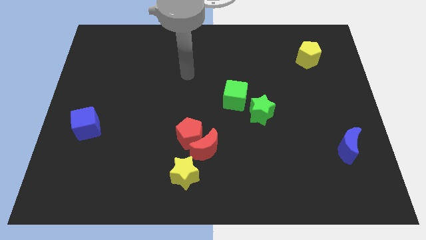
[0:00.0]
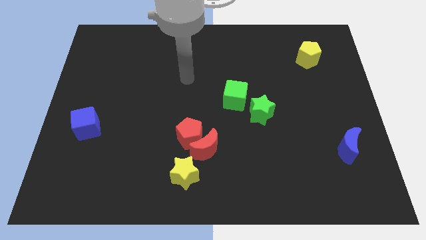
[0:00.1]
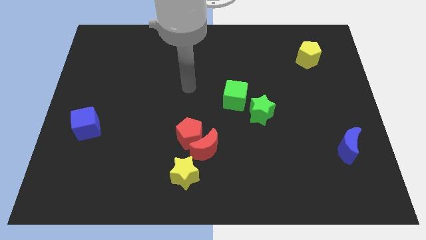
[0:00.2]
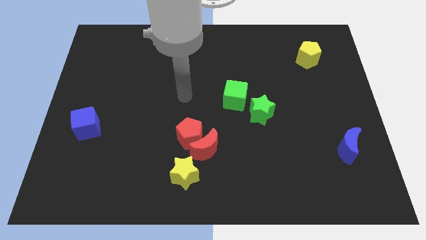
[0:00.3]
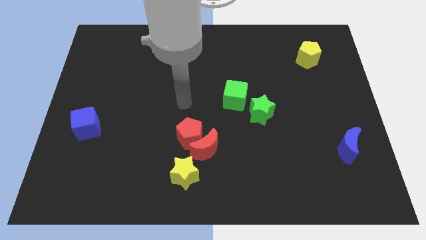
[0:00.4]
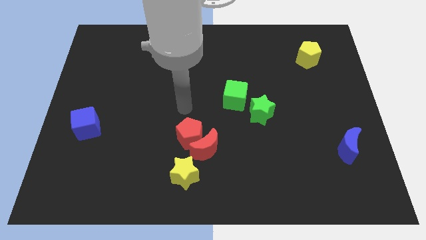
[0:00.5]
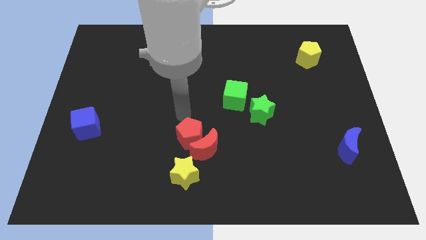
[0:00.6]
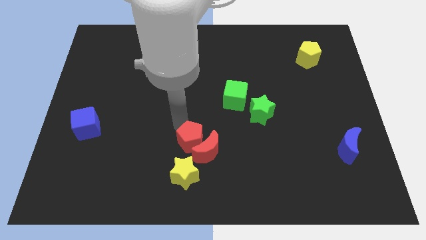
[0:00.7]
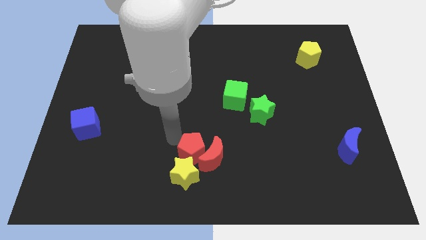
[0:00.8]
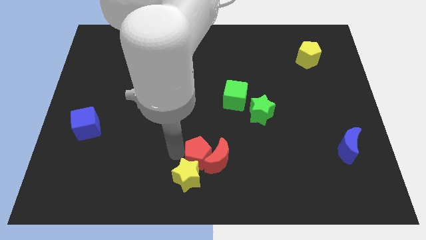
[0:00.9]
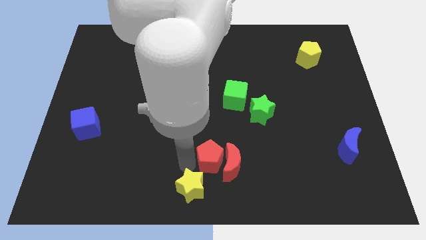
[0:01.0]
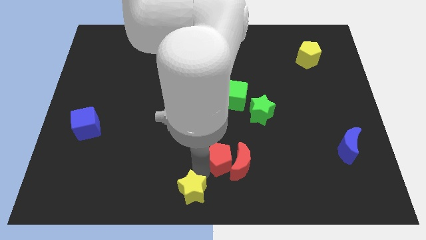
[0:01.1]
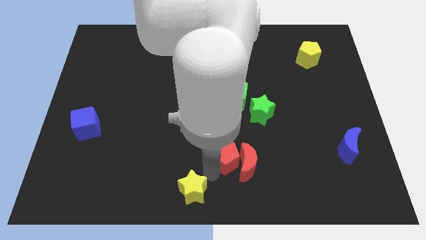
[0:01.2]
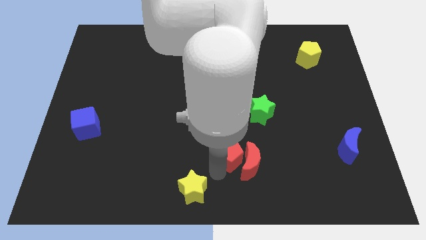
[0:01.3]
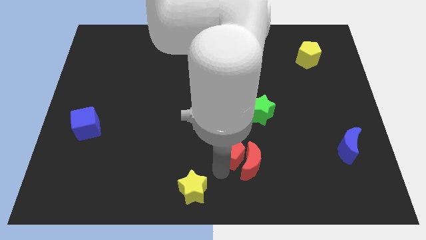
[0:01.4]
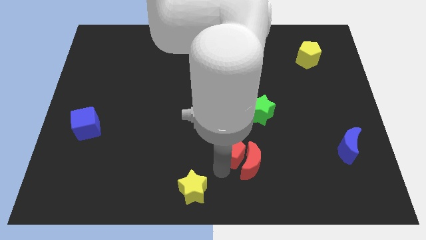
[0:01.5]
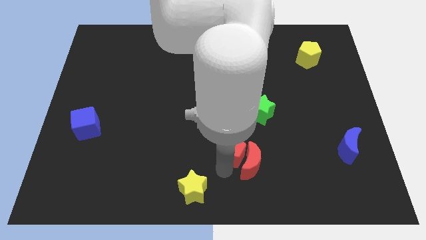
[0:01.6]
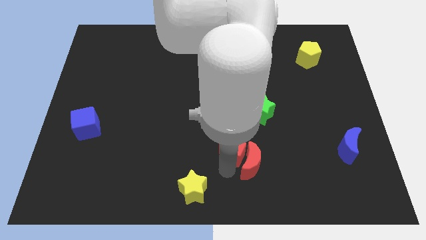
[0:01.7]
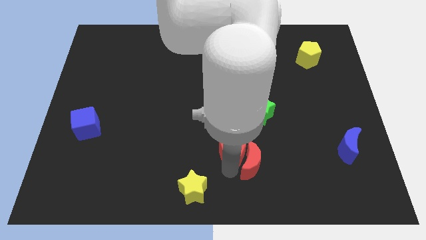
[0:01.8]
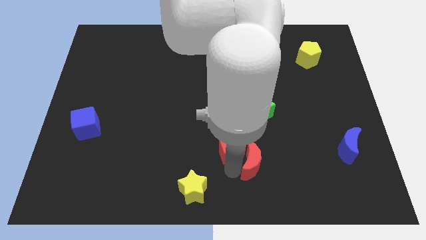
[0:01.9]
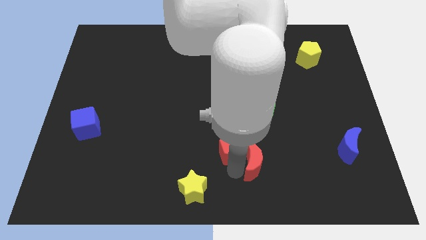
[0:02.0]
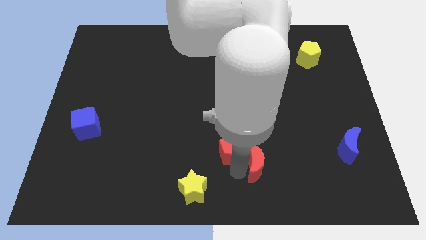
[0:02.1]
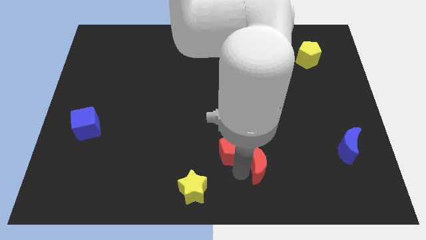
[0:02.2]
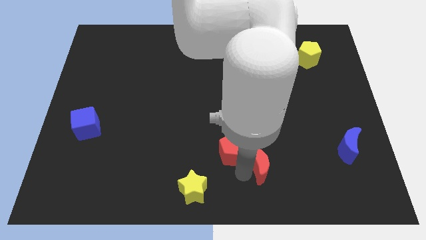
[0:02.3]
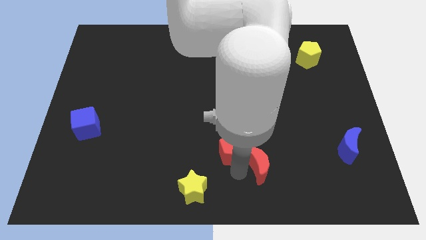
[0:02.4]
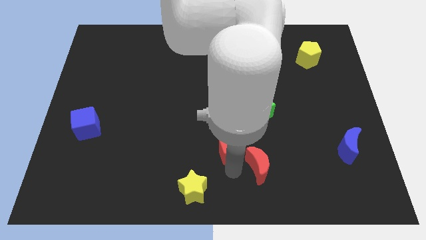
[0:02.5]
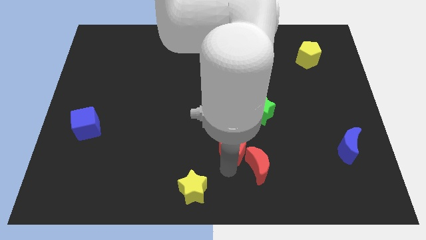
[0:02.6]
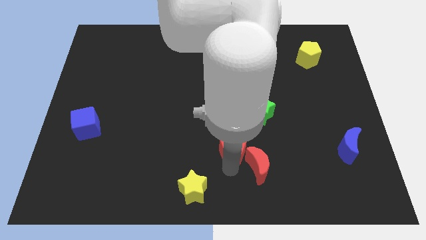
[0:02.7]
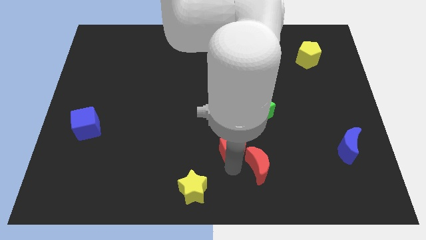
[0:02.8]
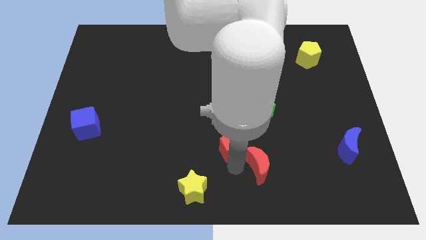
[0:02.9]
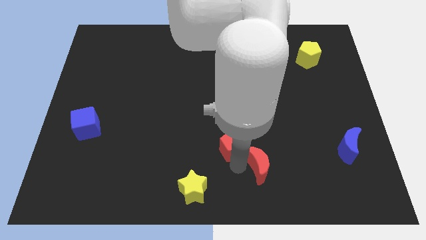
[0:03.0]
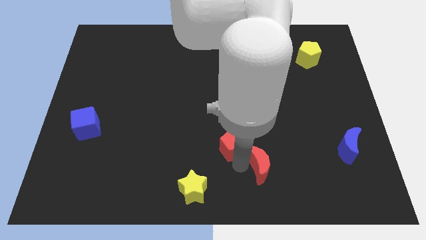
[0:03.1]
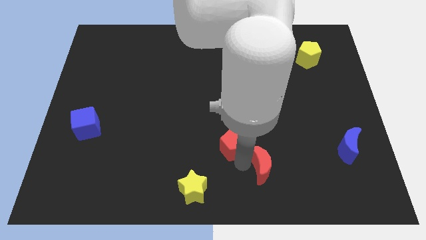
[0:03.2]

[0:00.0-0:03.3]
move the red moon away from the red pentagon and yellow star

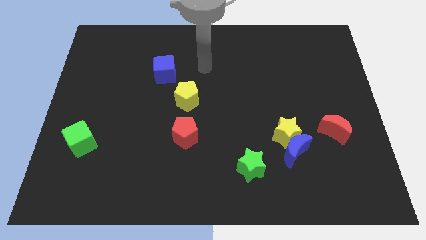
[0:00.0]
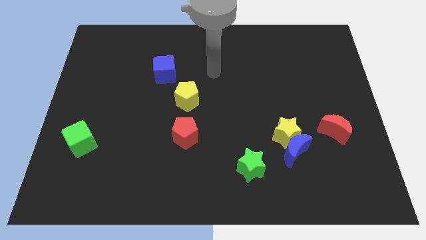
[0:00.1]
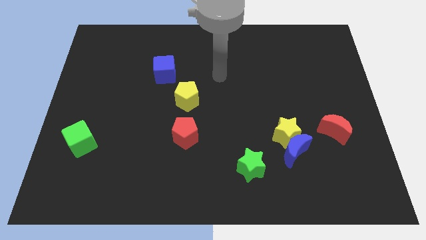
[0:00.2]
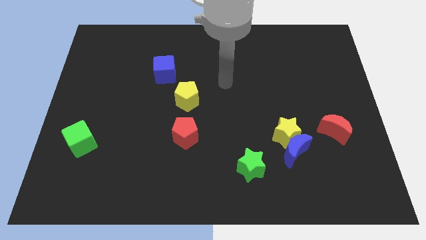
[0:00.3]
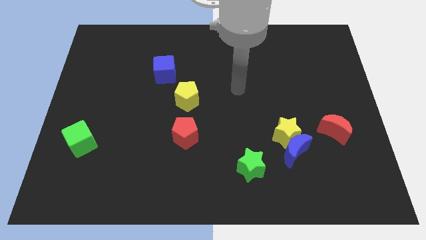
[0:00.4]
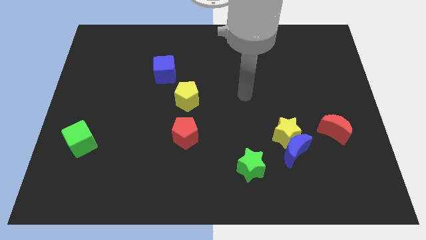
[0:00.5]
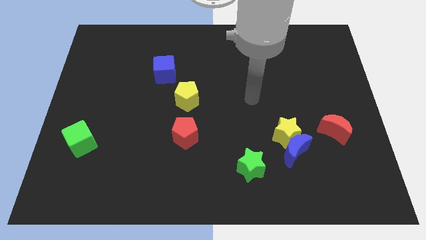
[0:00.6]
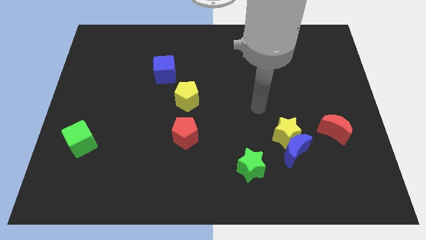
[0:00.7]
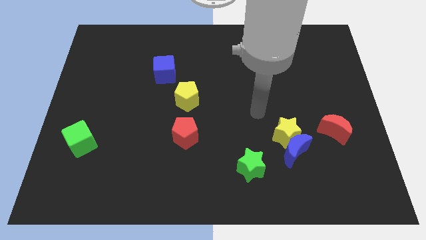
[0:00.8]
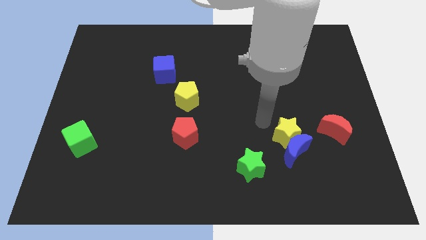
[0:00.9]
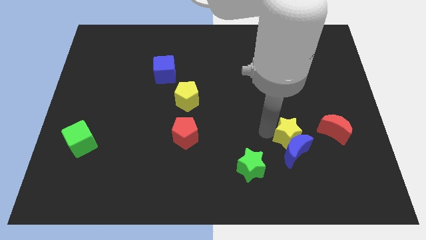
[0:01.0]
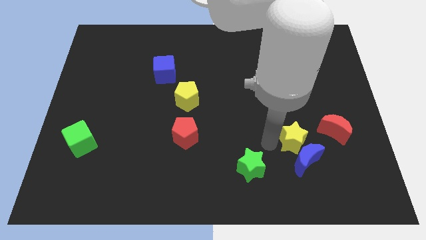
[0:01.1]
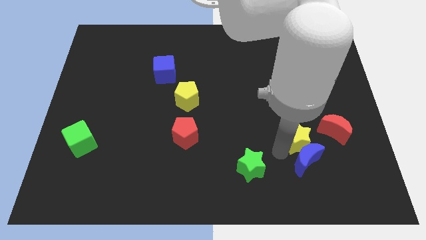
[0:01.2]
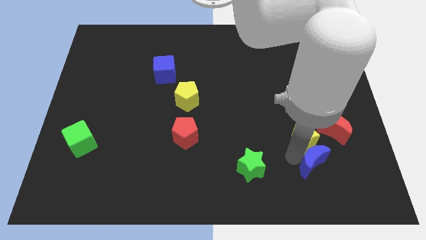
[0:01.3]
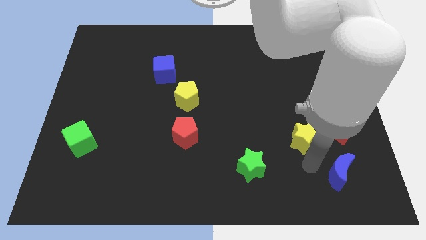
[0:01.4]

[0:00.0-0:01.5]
move the yellow star away from the blue moon

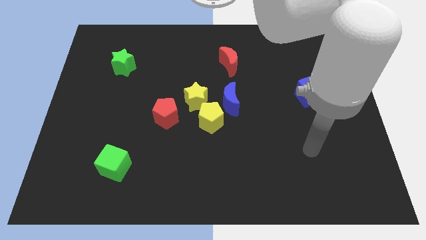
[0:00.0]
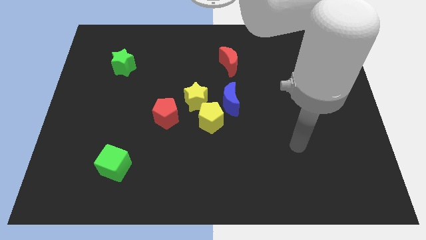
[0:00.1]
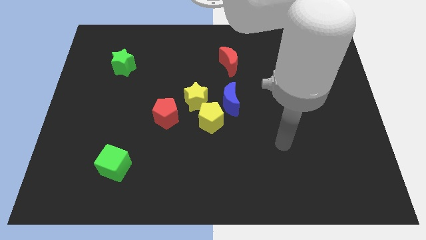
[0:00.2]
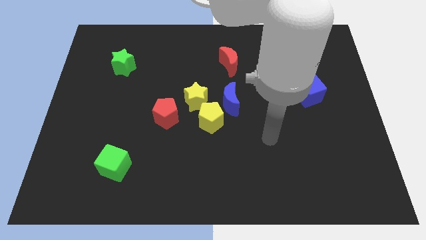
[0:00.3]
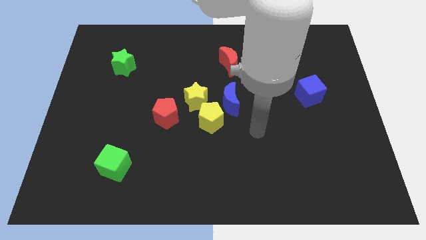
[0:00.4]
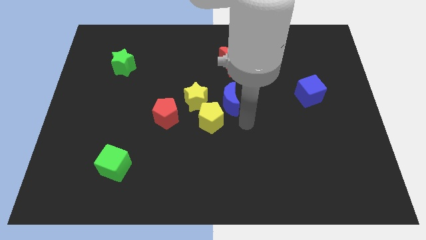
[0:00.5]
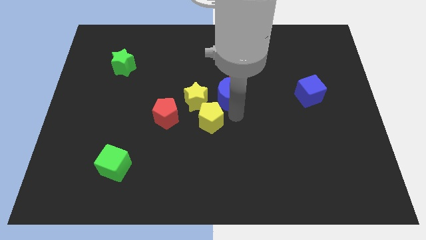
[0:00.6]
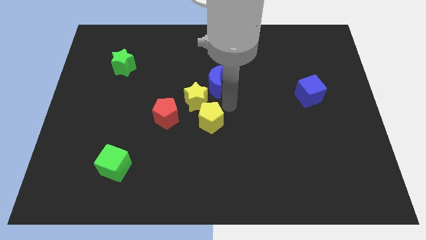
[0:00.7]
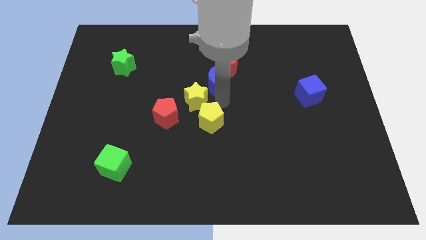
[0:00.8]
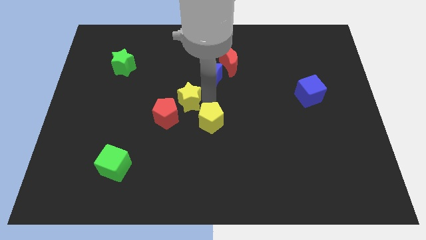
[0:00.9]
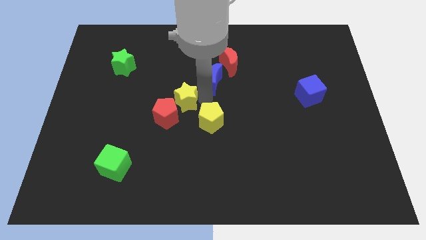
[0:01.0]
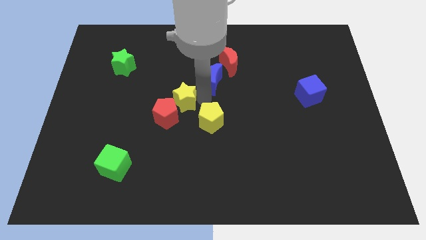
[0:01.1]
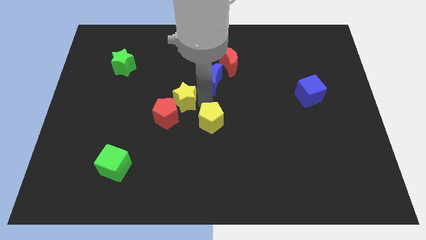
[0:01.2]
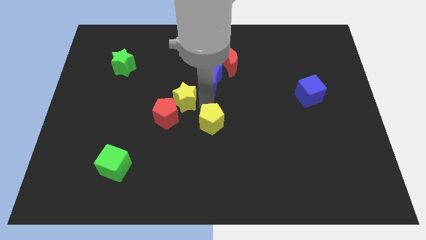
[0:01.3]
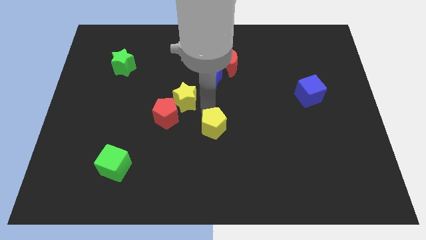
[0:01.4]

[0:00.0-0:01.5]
separate the yellow pentagon from the yellow star and blue moon

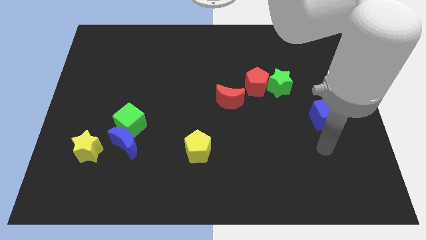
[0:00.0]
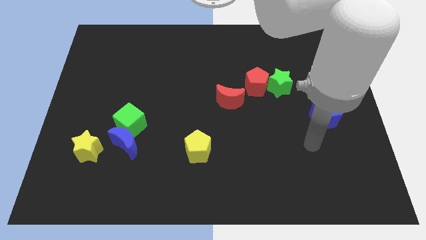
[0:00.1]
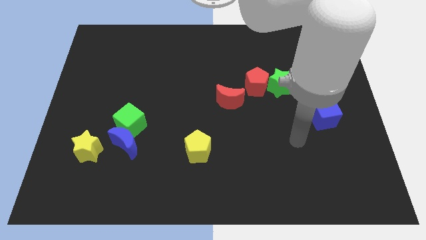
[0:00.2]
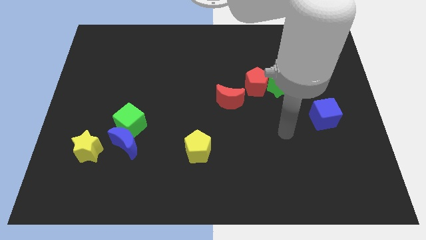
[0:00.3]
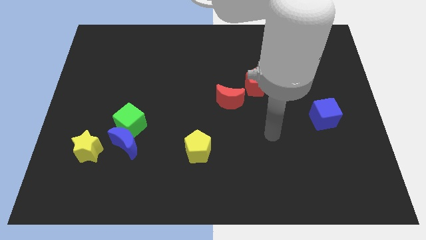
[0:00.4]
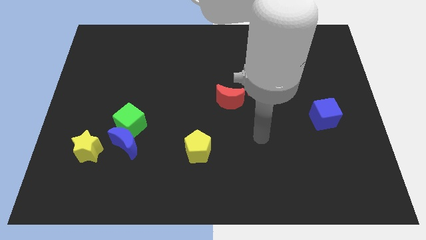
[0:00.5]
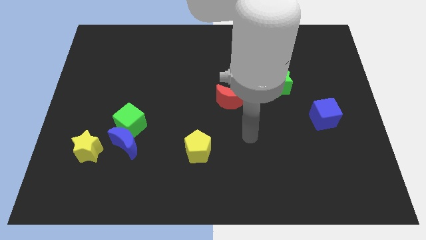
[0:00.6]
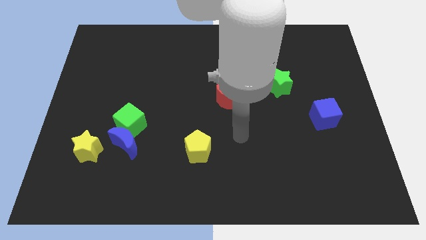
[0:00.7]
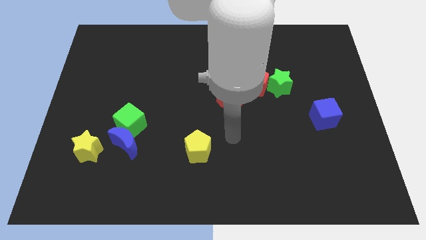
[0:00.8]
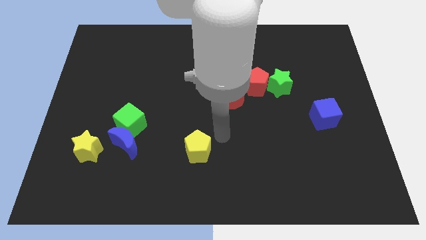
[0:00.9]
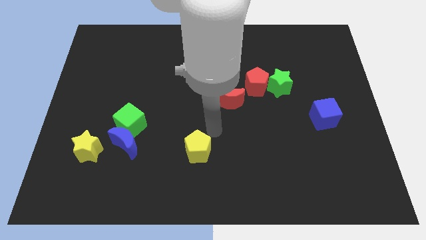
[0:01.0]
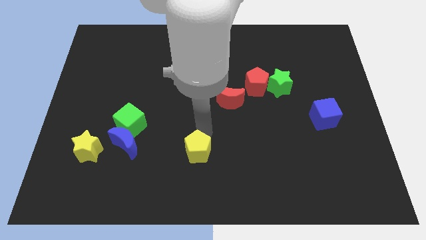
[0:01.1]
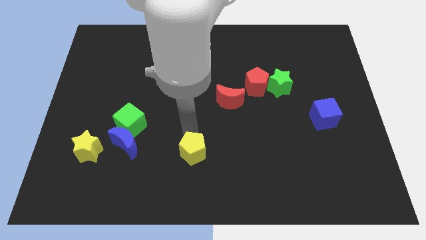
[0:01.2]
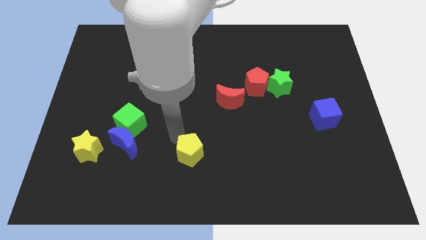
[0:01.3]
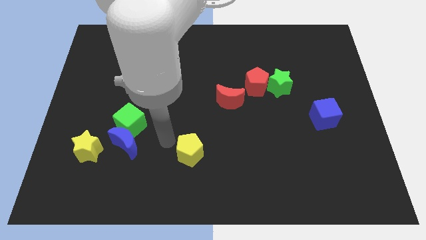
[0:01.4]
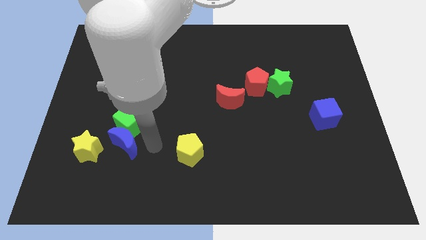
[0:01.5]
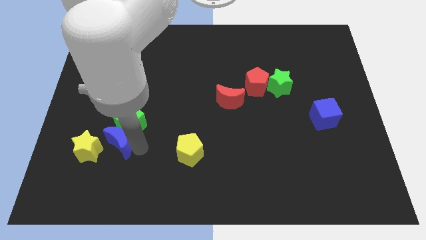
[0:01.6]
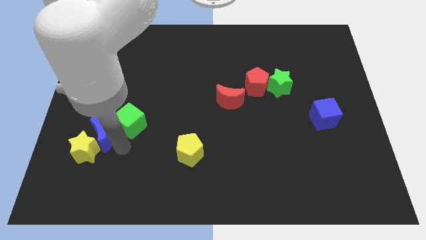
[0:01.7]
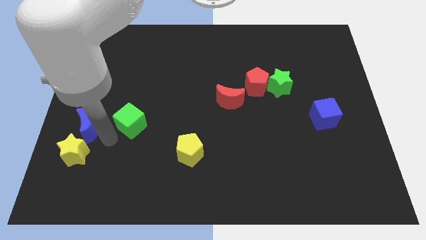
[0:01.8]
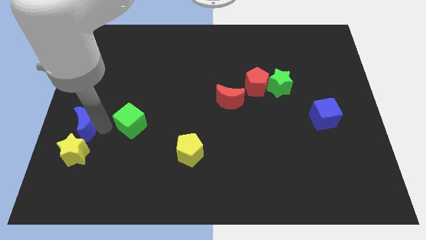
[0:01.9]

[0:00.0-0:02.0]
separate the green cube from the blue moon

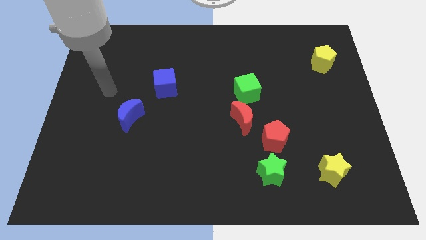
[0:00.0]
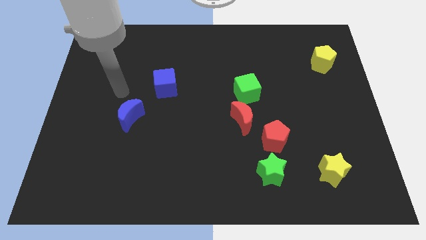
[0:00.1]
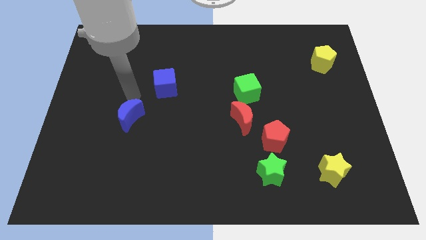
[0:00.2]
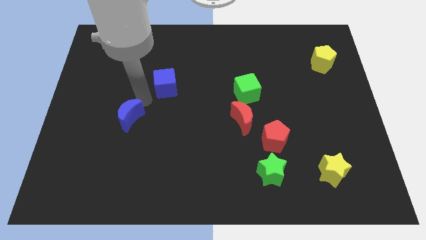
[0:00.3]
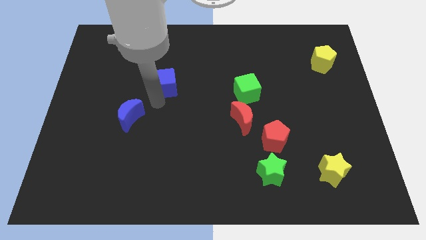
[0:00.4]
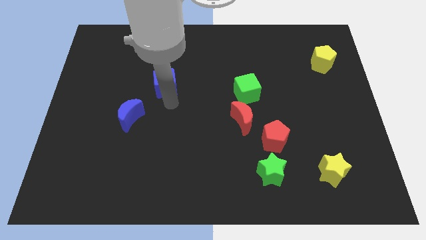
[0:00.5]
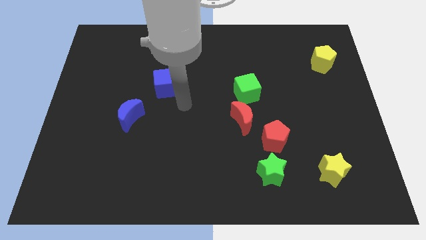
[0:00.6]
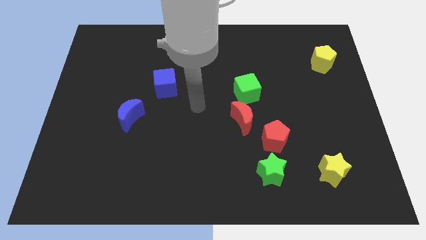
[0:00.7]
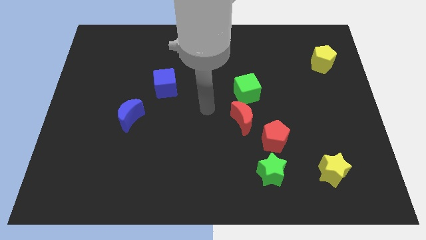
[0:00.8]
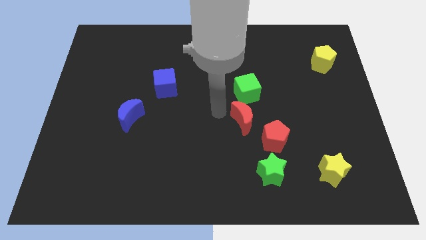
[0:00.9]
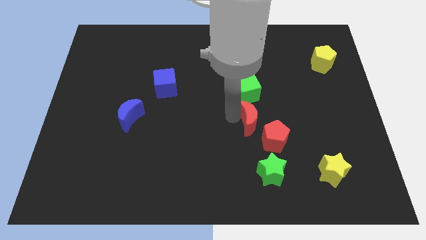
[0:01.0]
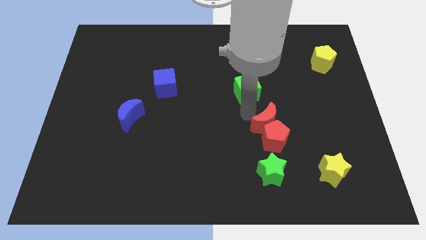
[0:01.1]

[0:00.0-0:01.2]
pull the green cube apart from the red moon
